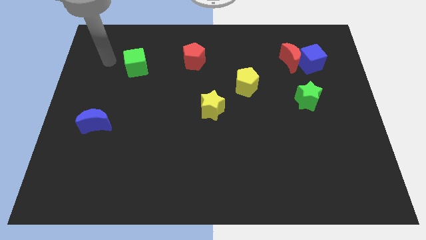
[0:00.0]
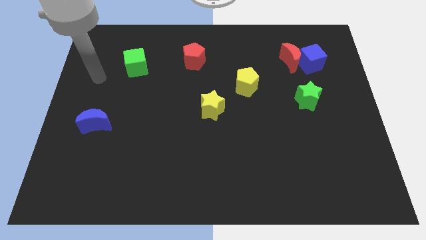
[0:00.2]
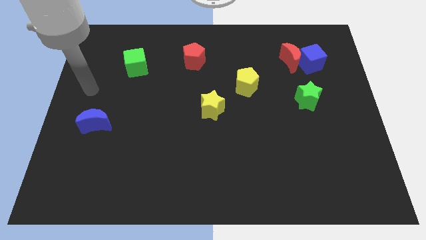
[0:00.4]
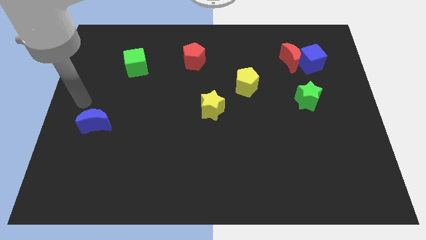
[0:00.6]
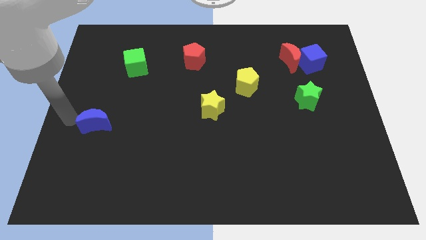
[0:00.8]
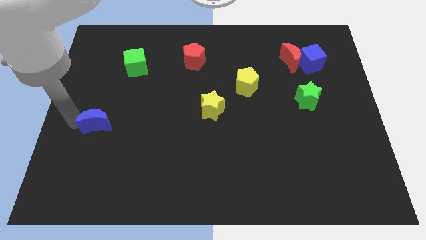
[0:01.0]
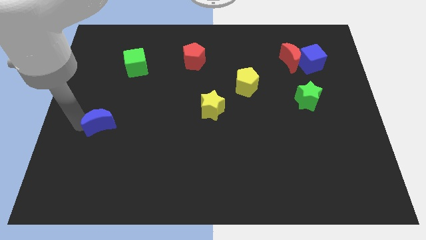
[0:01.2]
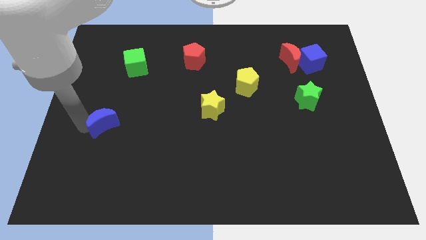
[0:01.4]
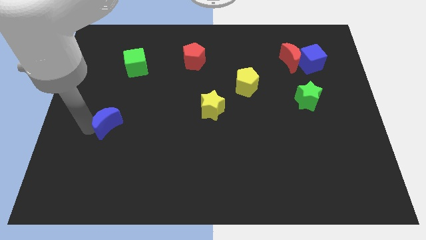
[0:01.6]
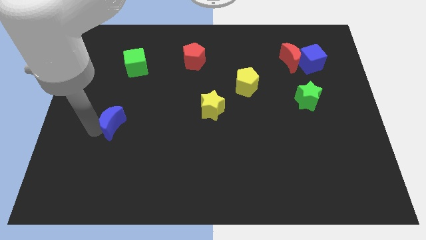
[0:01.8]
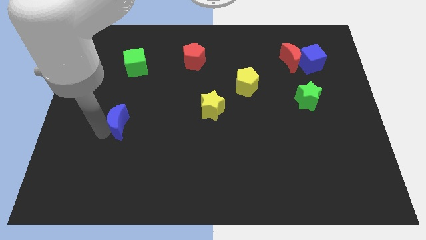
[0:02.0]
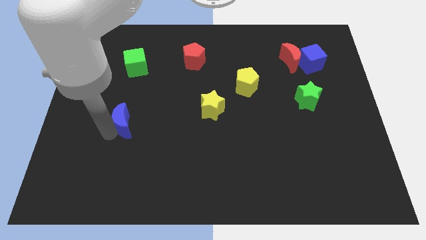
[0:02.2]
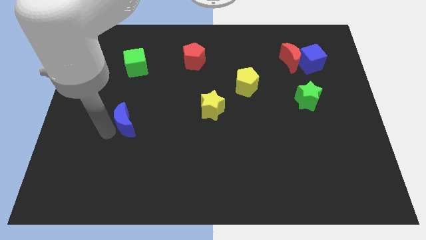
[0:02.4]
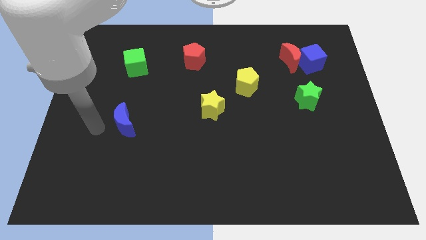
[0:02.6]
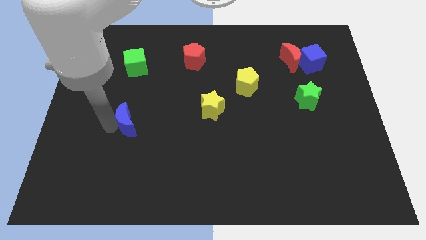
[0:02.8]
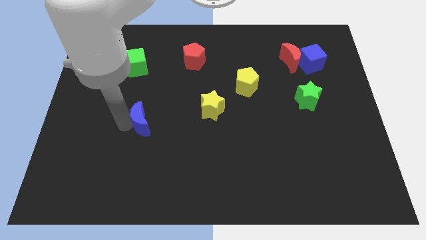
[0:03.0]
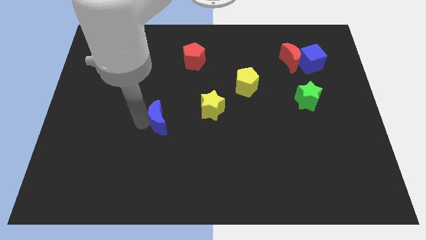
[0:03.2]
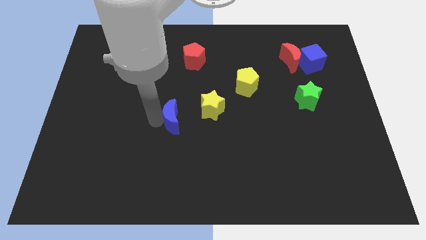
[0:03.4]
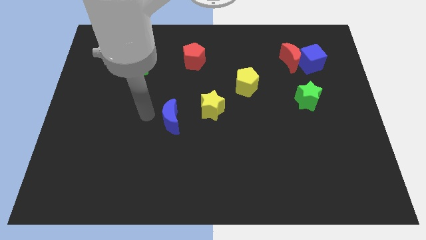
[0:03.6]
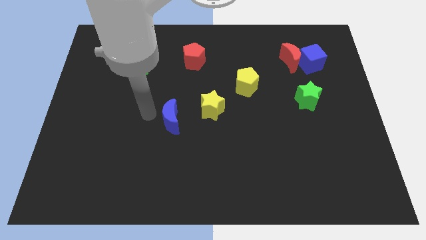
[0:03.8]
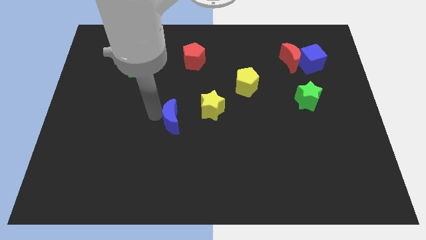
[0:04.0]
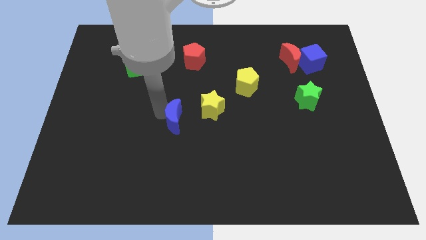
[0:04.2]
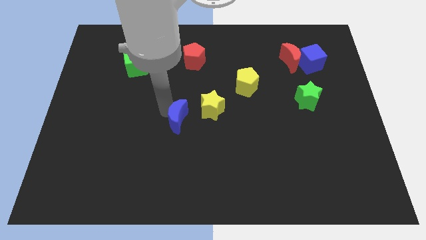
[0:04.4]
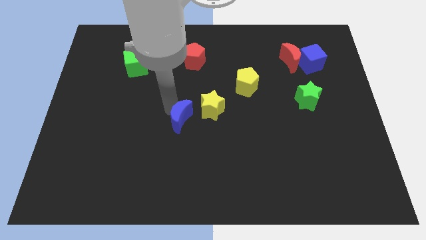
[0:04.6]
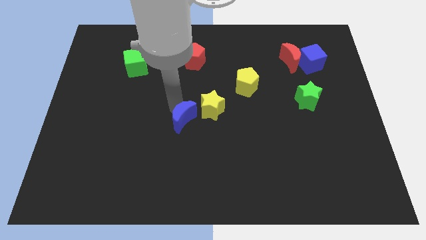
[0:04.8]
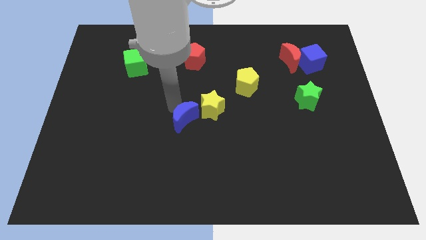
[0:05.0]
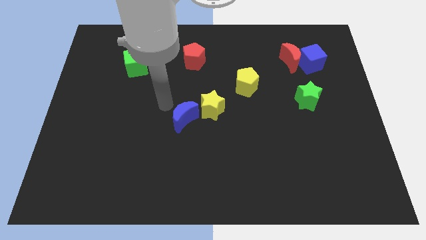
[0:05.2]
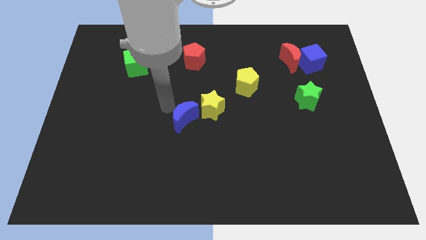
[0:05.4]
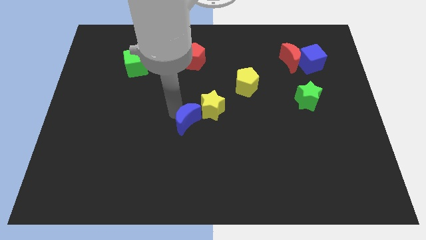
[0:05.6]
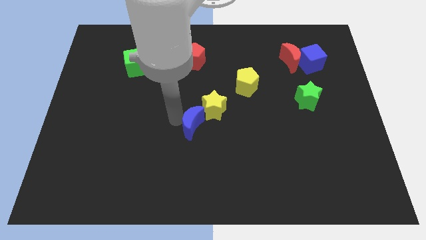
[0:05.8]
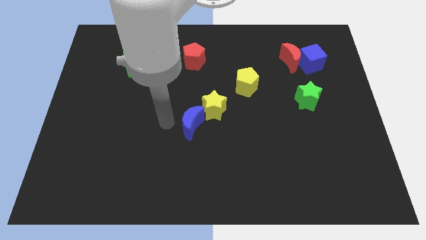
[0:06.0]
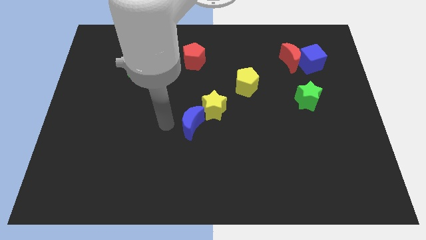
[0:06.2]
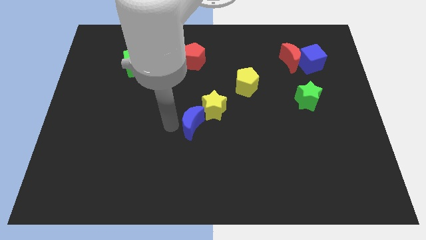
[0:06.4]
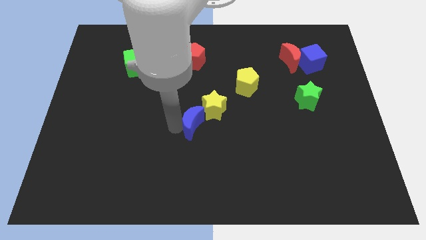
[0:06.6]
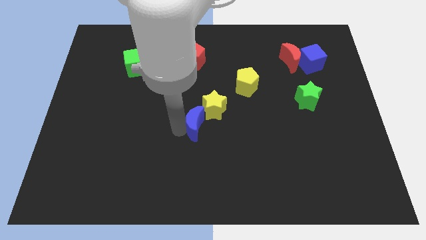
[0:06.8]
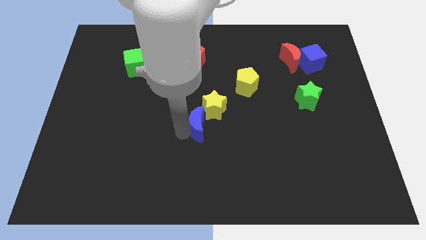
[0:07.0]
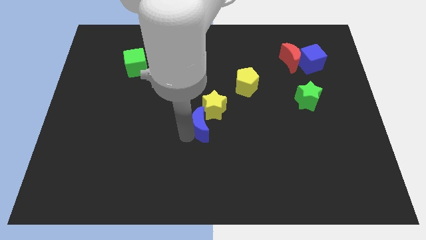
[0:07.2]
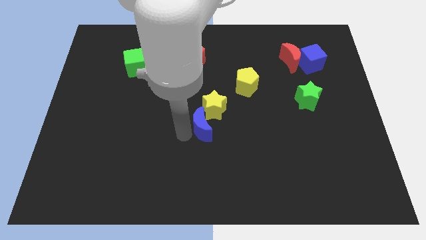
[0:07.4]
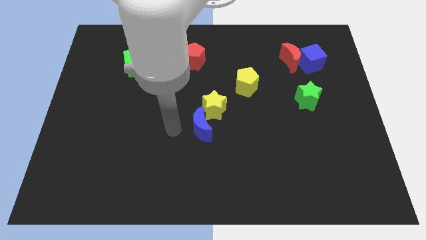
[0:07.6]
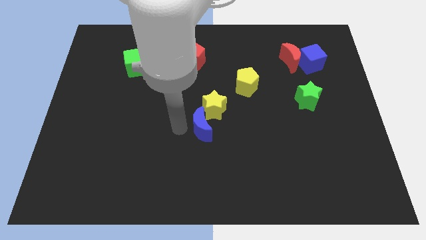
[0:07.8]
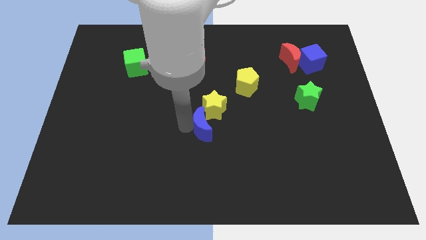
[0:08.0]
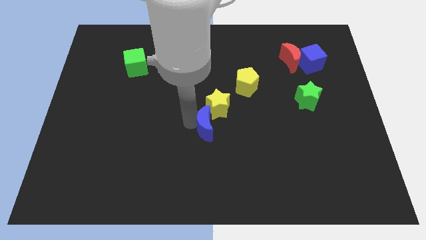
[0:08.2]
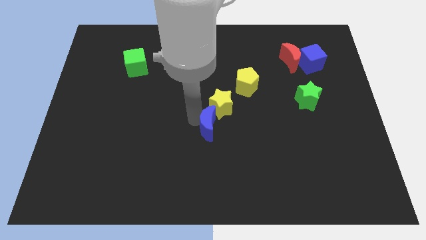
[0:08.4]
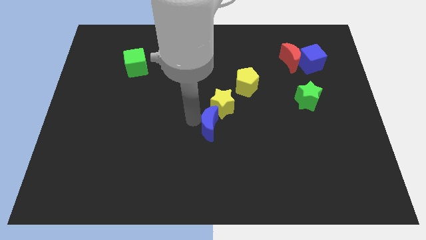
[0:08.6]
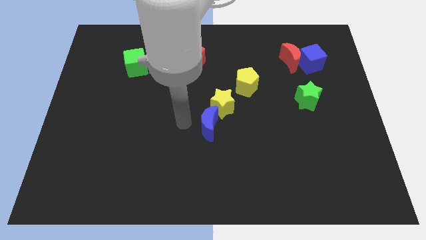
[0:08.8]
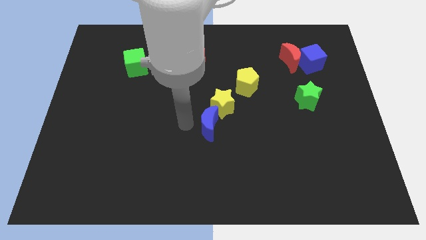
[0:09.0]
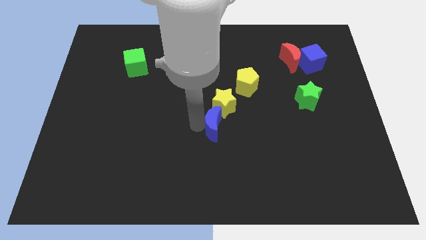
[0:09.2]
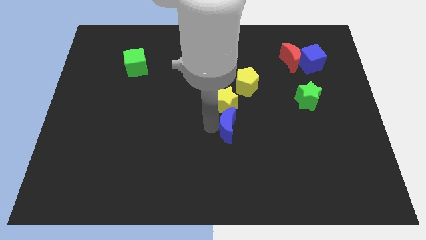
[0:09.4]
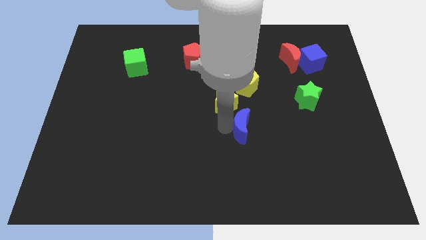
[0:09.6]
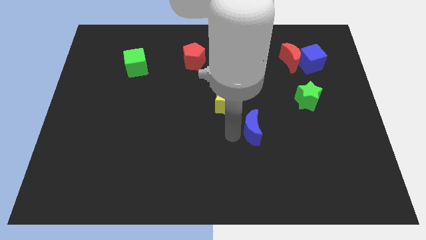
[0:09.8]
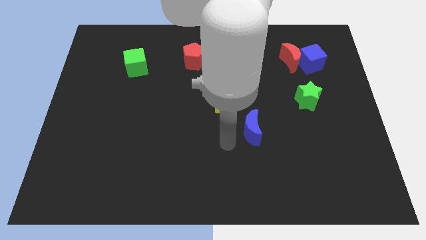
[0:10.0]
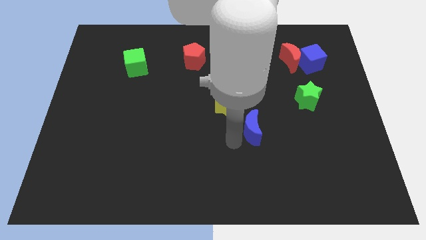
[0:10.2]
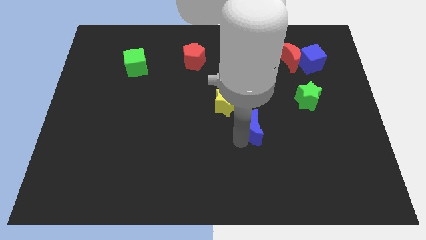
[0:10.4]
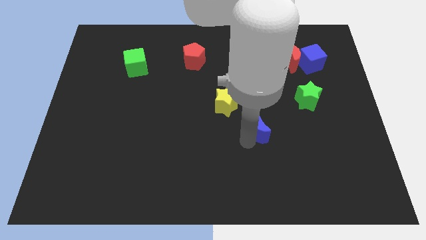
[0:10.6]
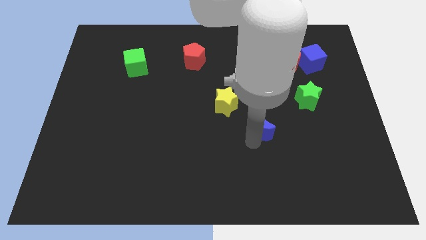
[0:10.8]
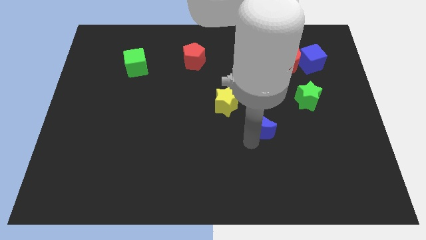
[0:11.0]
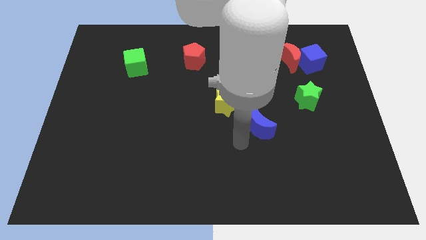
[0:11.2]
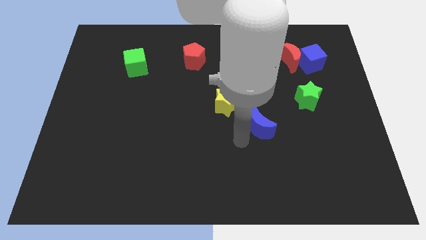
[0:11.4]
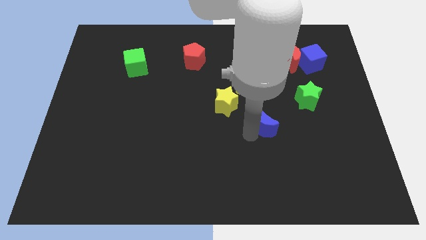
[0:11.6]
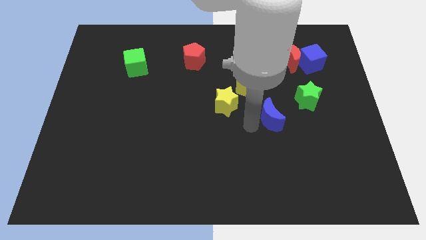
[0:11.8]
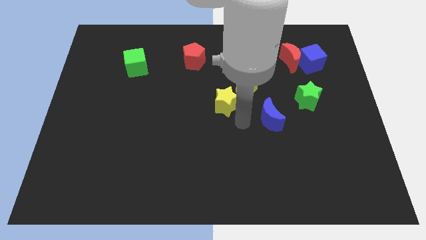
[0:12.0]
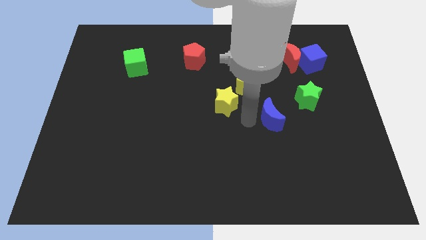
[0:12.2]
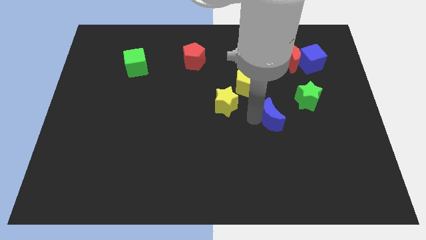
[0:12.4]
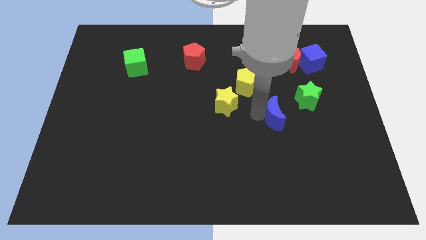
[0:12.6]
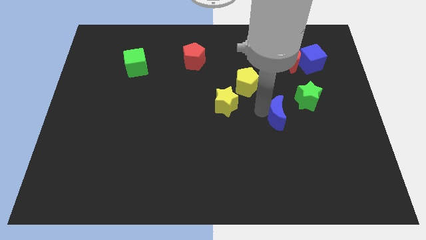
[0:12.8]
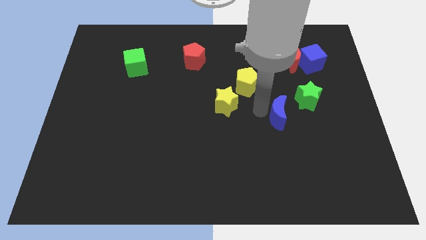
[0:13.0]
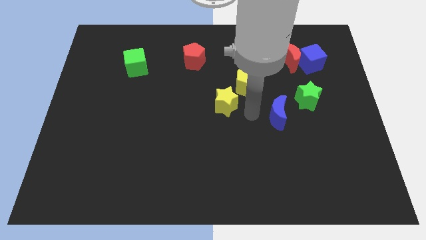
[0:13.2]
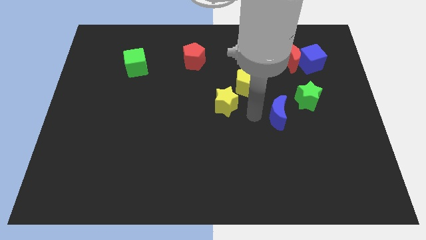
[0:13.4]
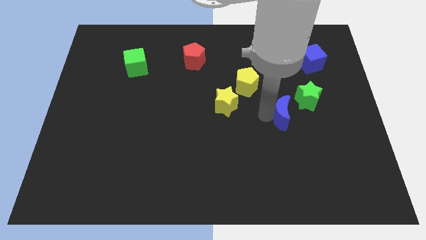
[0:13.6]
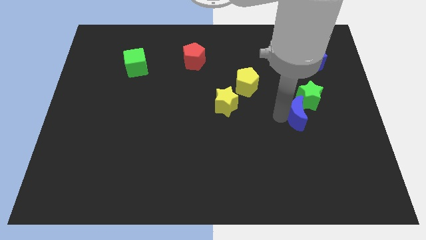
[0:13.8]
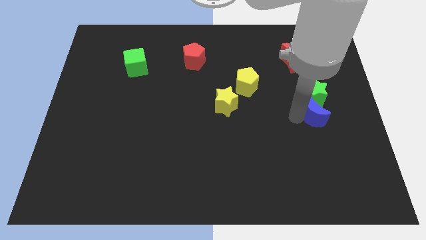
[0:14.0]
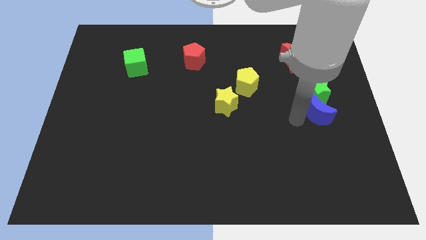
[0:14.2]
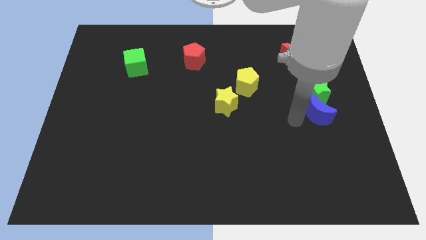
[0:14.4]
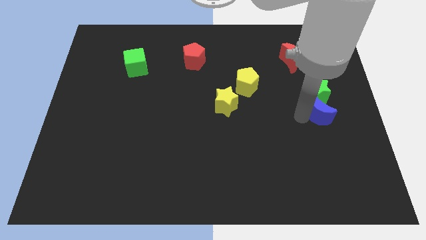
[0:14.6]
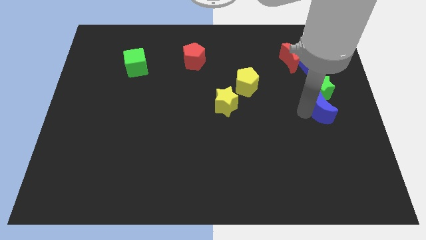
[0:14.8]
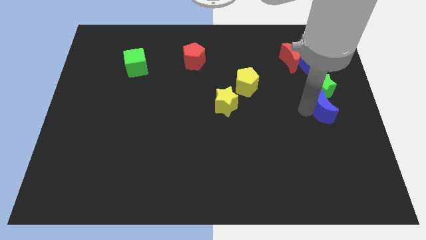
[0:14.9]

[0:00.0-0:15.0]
slide the blue moon to the center right
